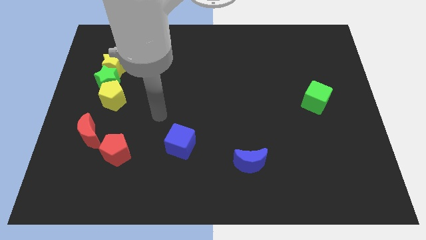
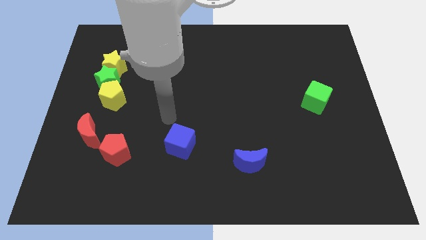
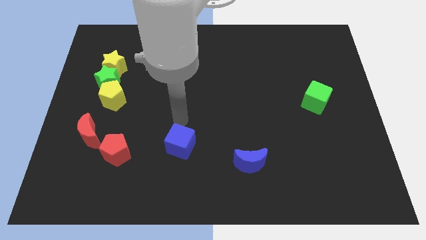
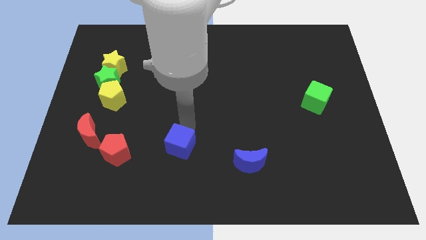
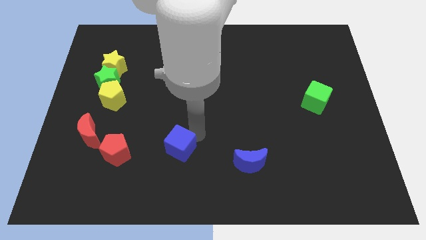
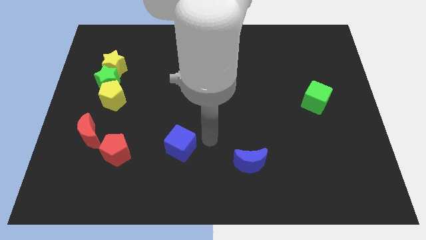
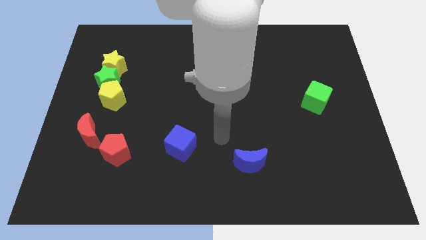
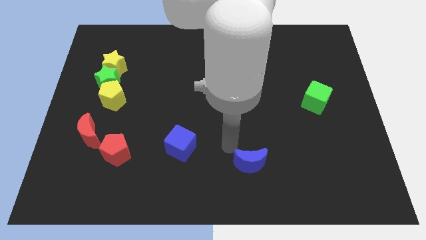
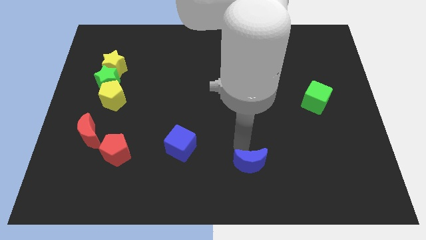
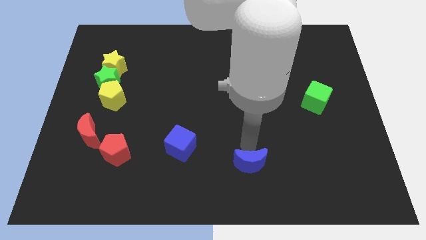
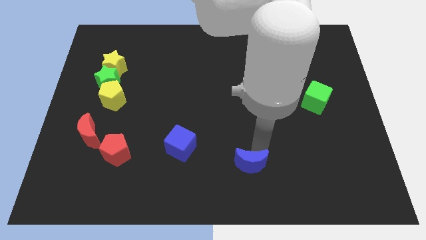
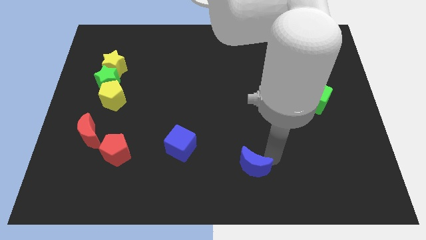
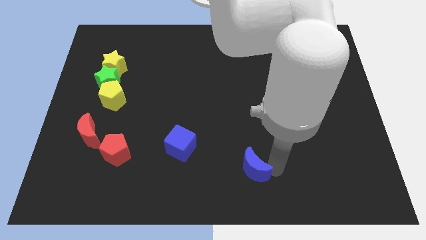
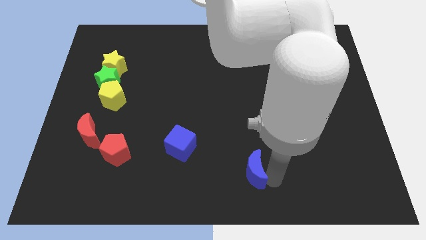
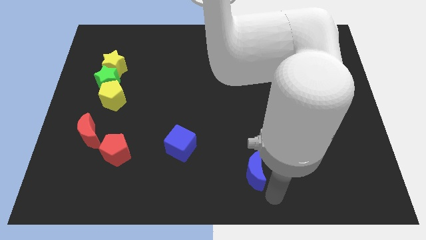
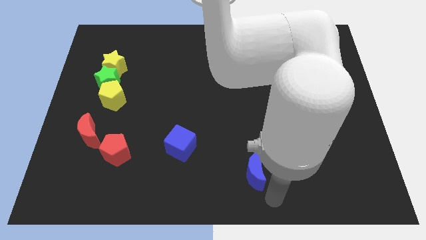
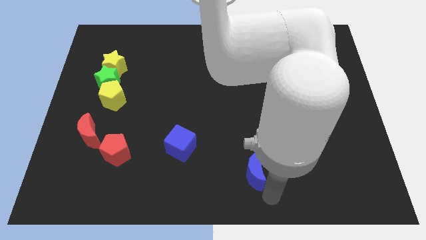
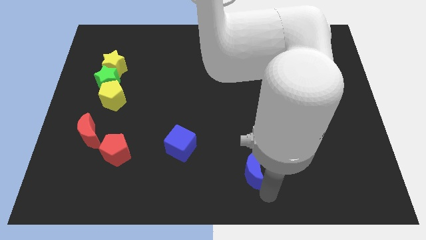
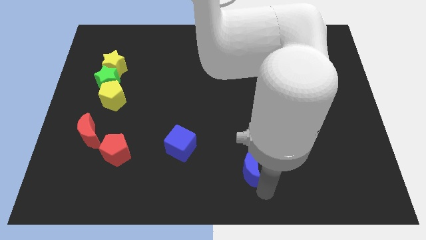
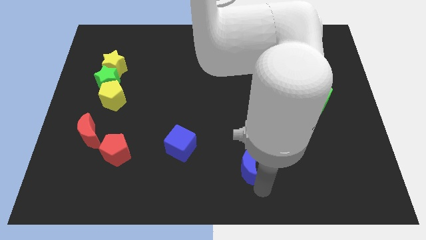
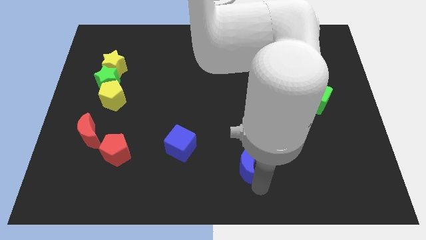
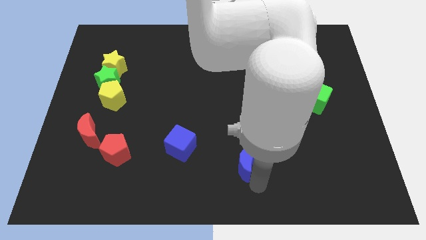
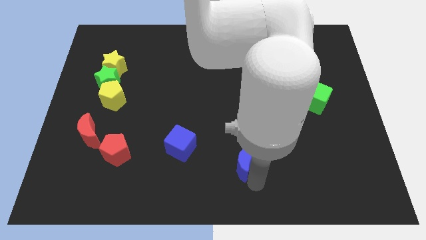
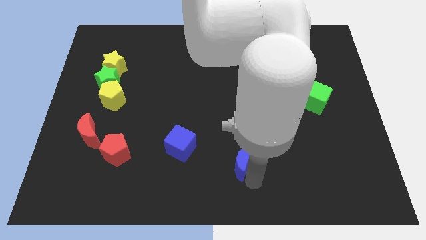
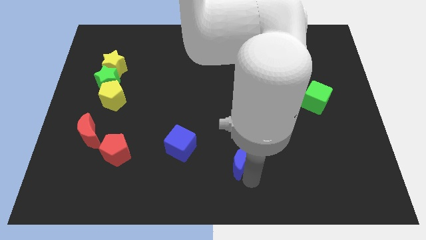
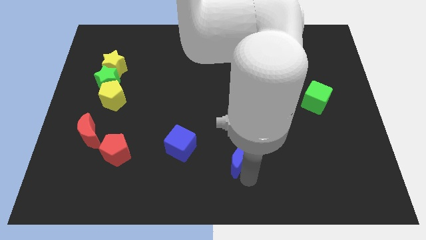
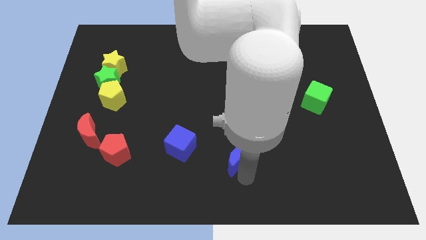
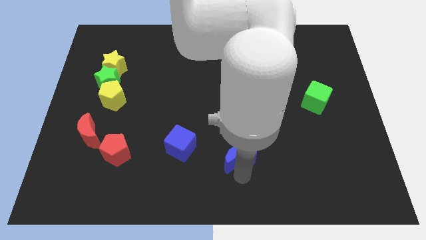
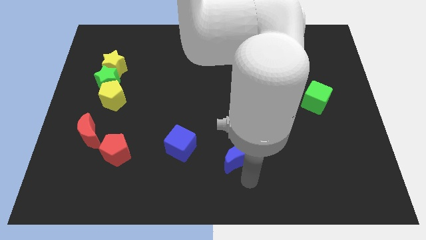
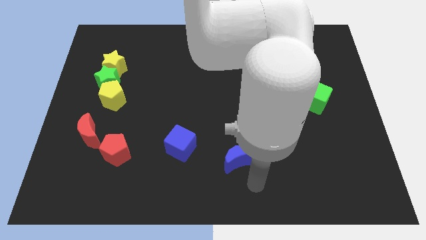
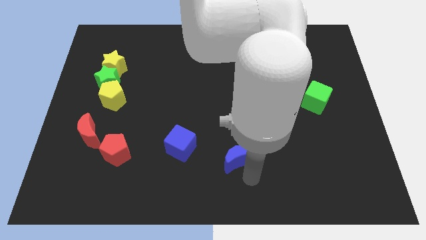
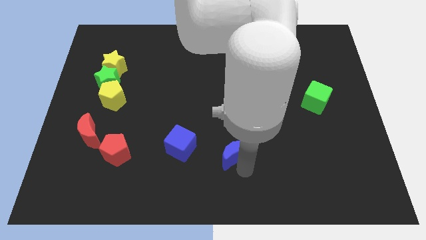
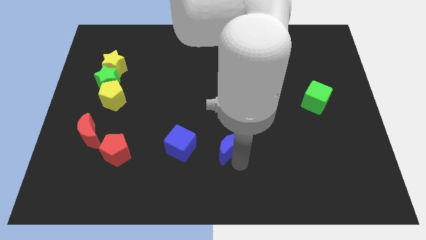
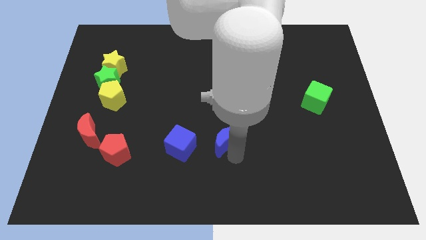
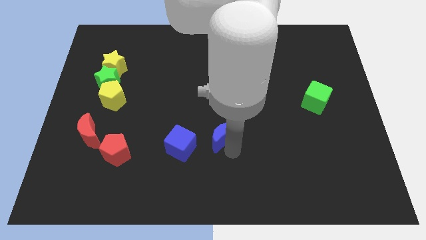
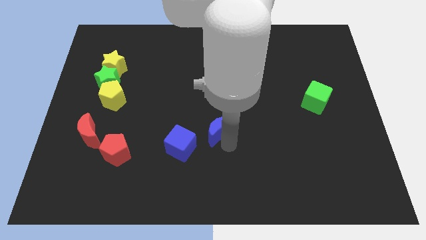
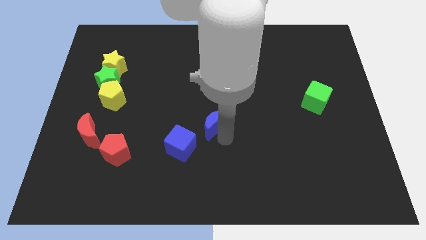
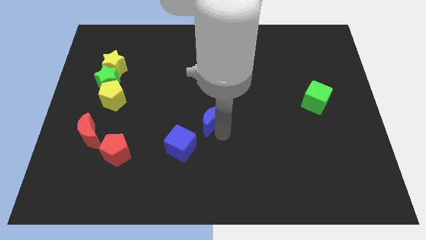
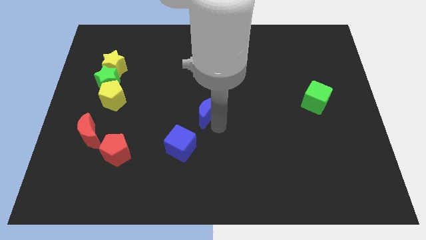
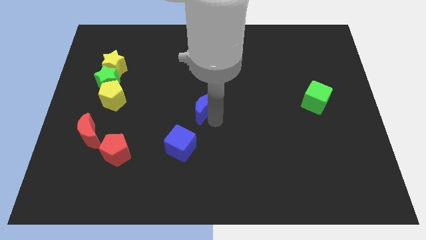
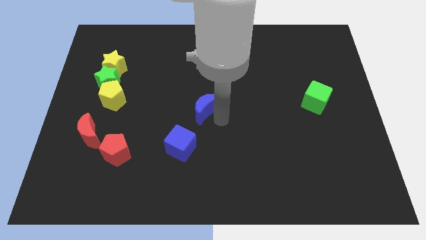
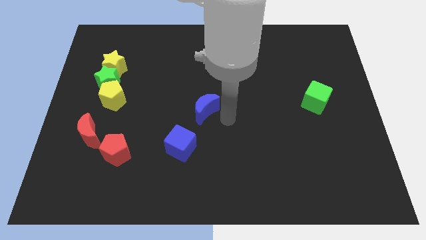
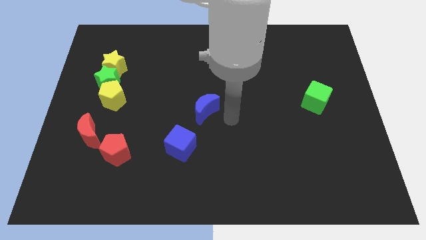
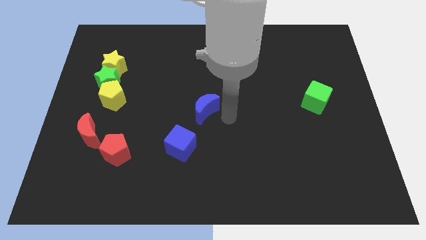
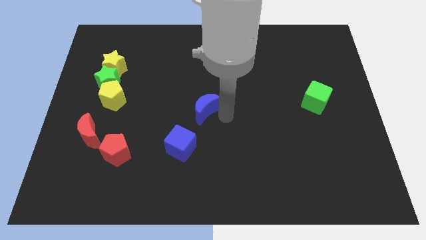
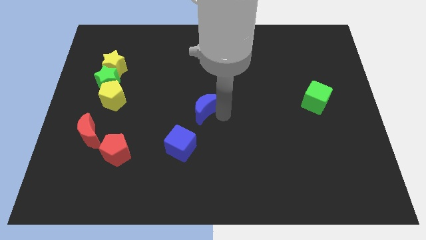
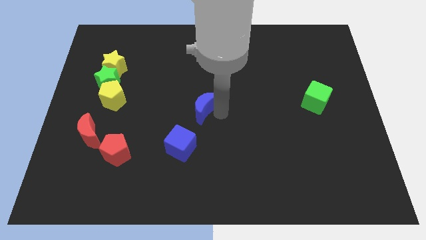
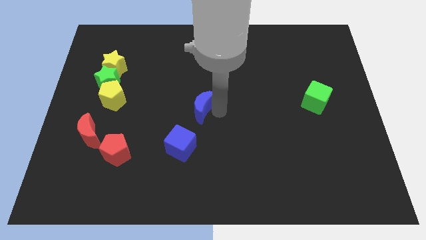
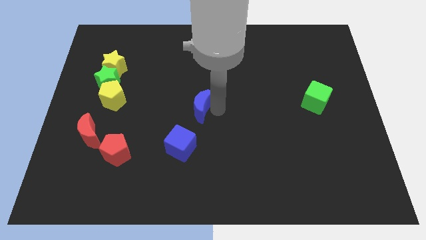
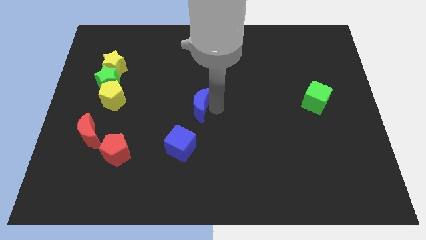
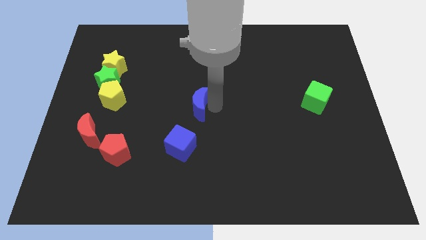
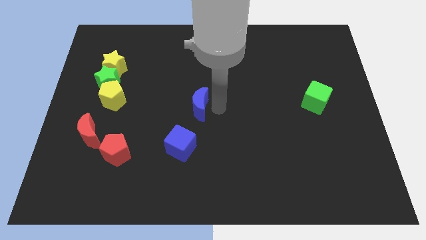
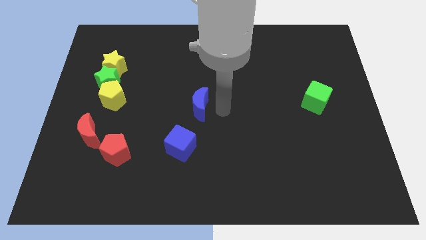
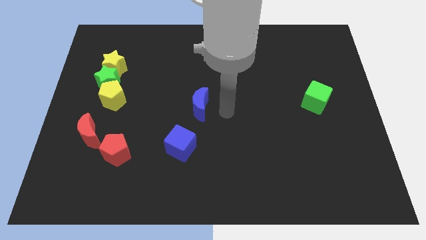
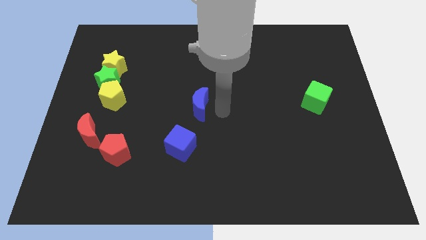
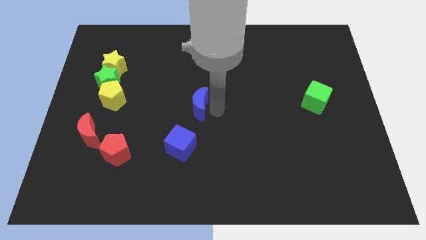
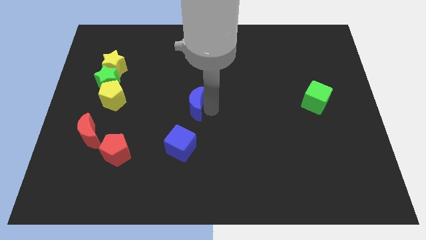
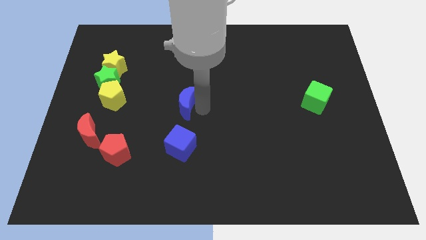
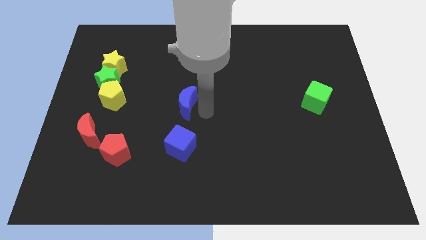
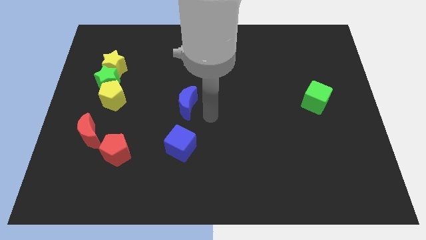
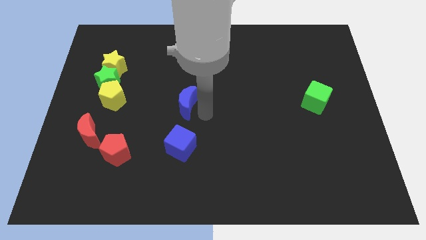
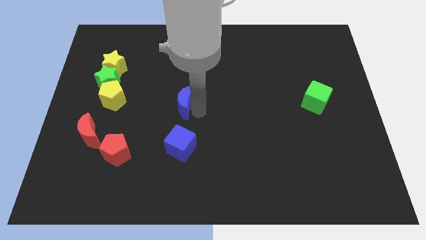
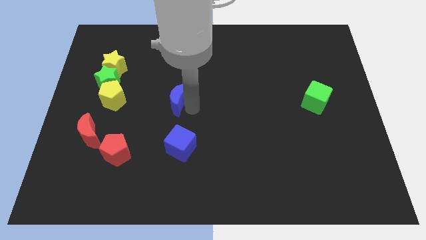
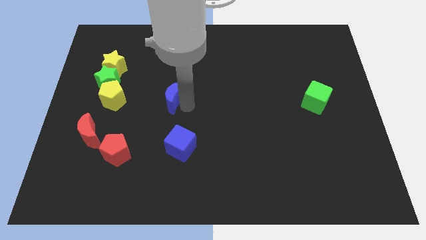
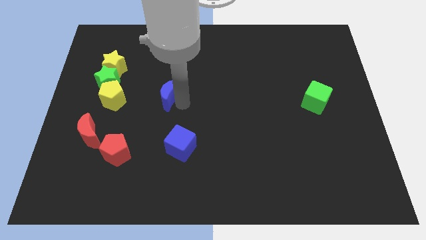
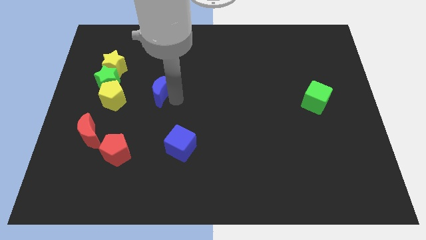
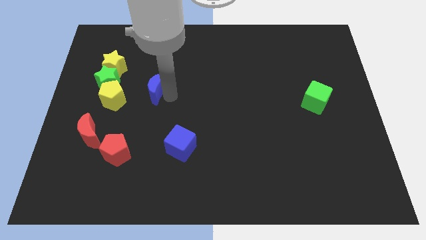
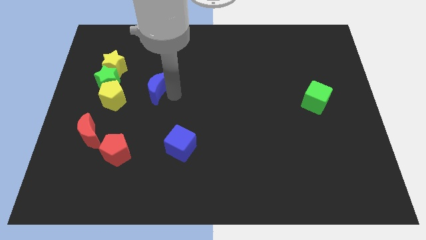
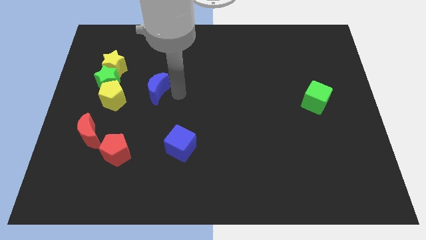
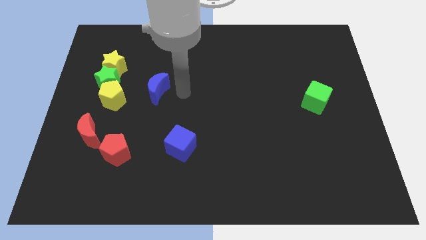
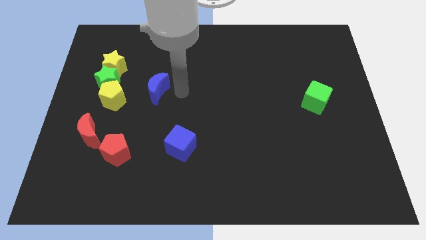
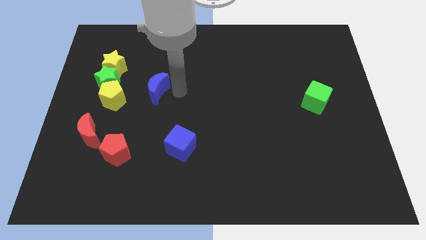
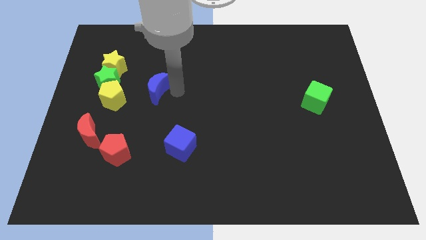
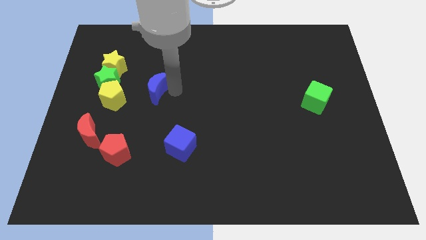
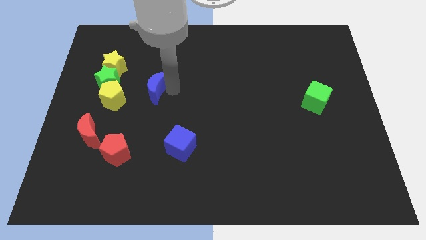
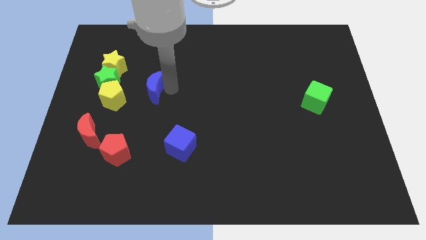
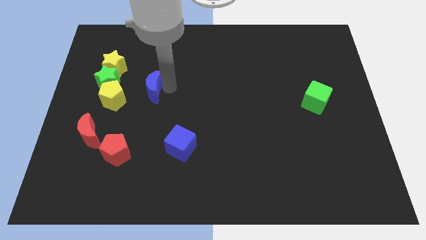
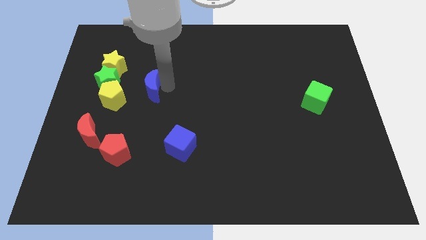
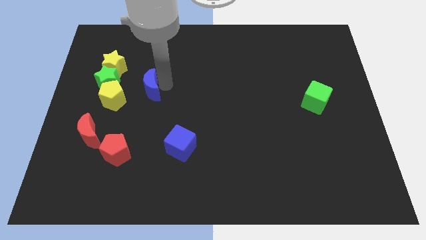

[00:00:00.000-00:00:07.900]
push the blue moon to the bottom right of the yellow star
